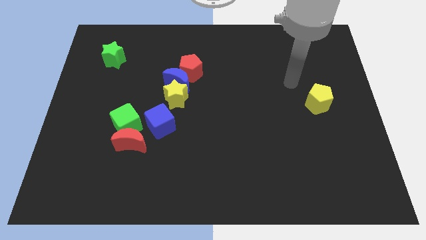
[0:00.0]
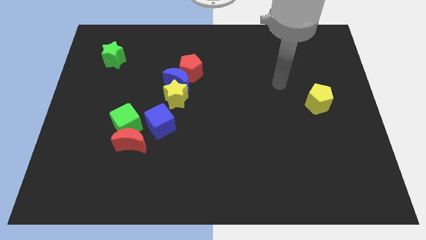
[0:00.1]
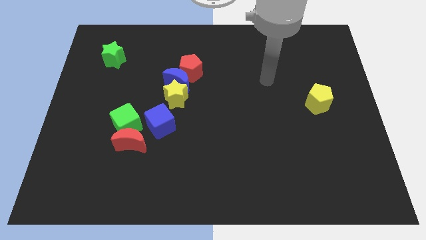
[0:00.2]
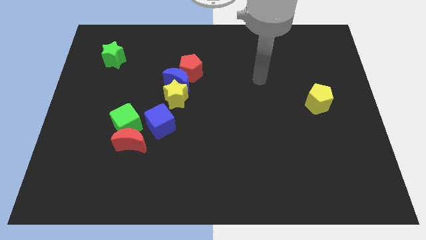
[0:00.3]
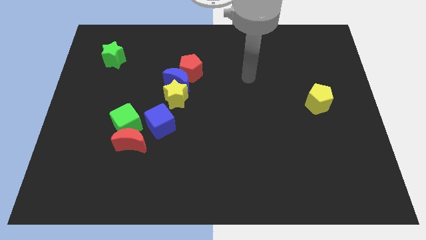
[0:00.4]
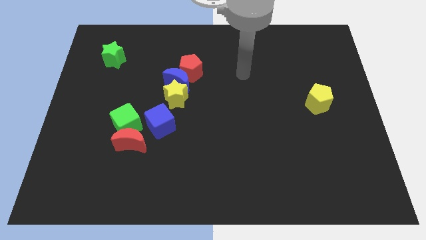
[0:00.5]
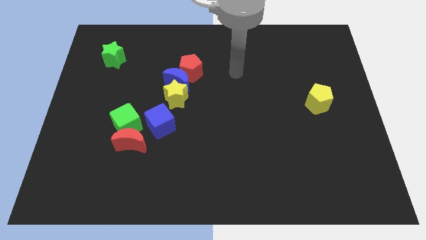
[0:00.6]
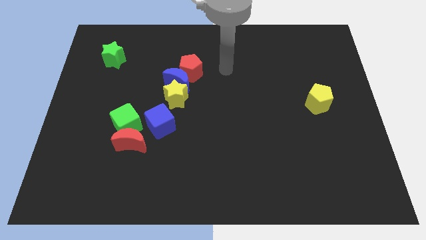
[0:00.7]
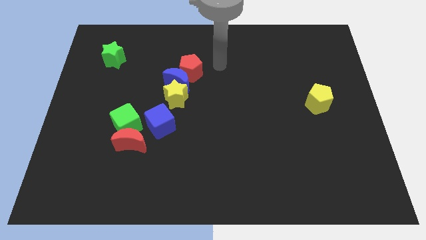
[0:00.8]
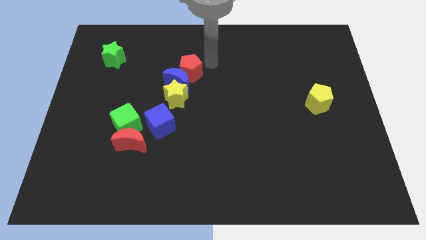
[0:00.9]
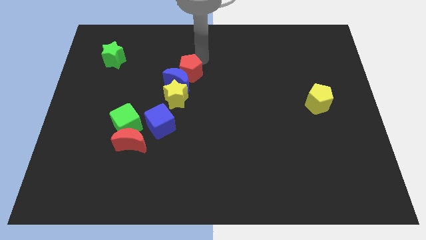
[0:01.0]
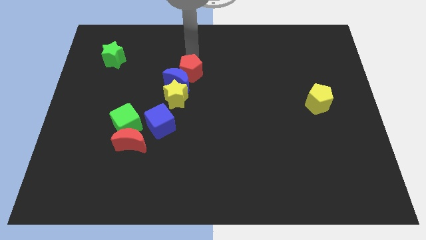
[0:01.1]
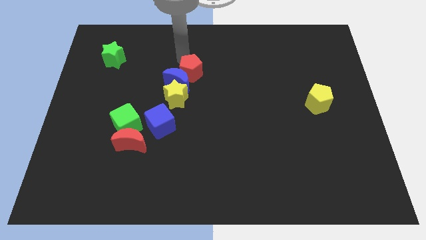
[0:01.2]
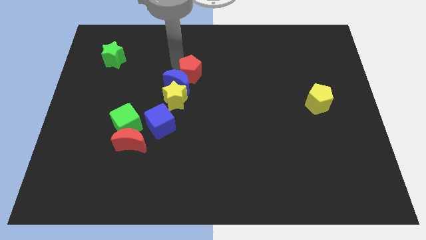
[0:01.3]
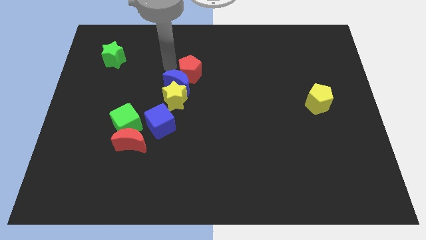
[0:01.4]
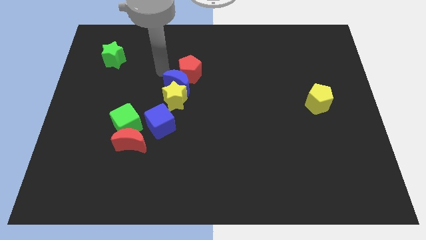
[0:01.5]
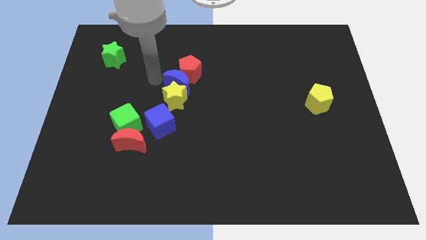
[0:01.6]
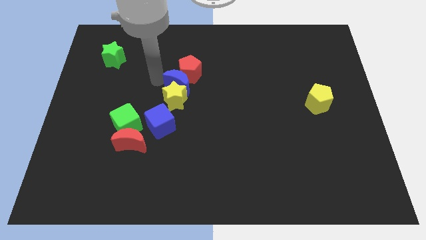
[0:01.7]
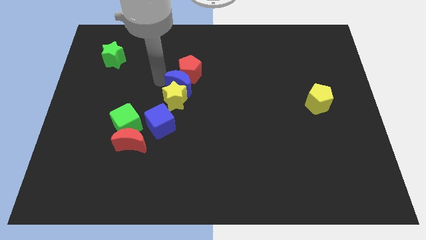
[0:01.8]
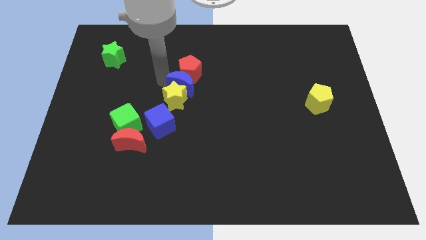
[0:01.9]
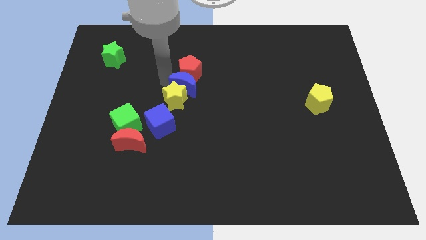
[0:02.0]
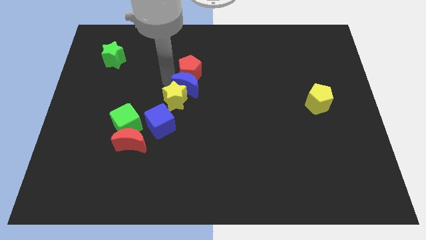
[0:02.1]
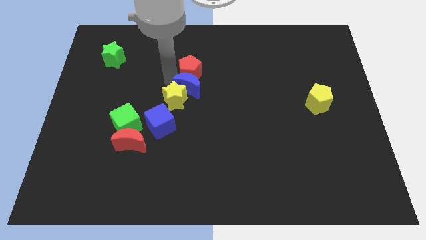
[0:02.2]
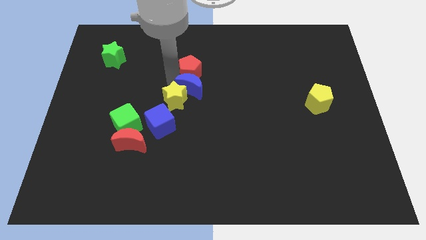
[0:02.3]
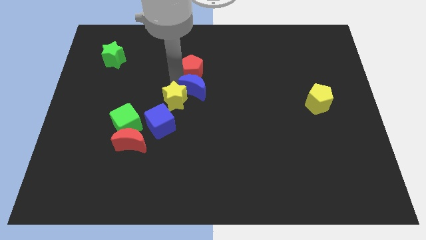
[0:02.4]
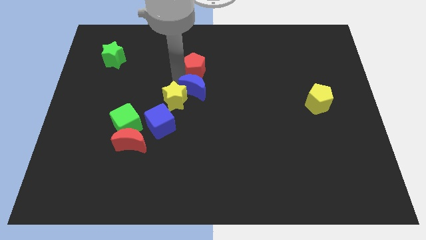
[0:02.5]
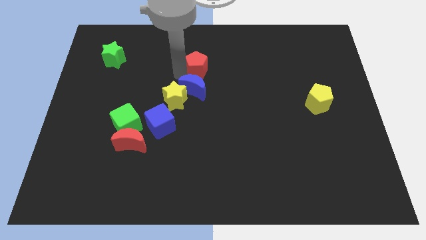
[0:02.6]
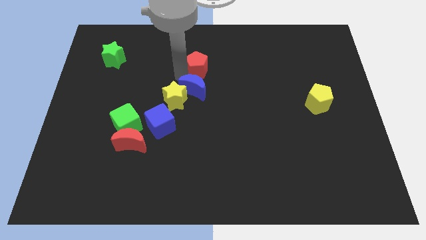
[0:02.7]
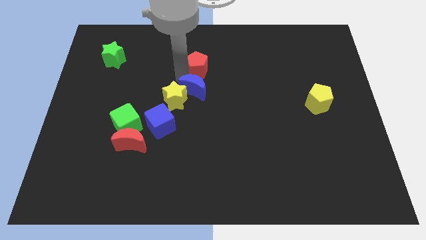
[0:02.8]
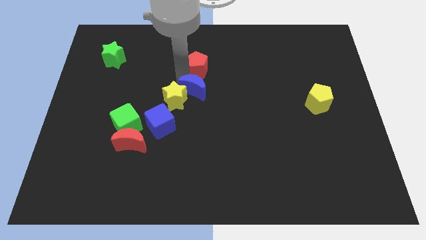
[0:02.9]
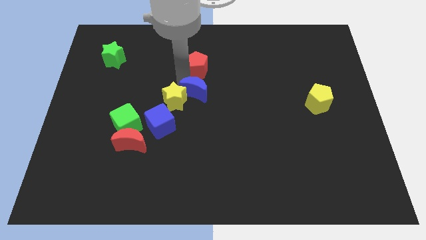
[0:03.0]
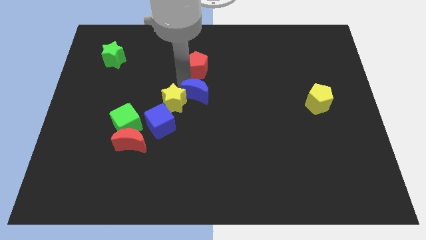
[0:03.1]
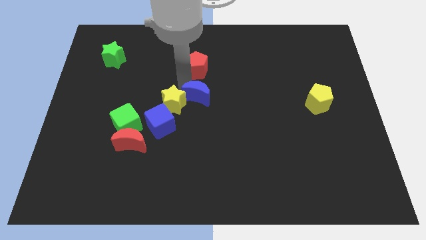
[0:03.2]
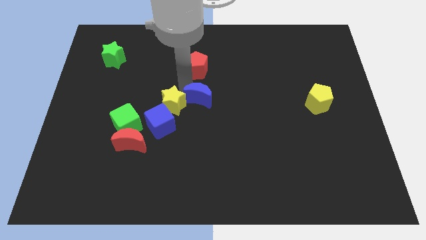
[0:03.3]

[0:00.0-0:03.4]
slightly push the blue moon down and to the right

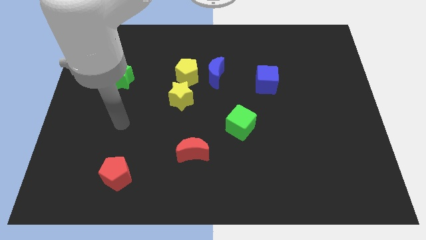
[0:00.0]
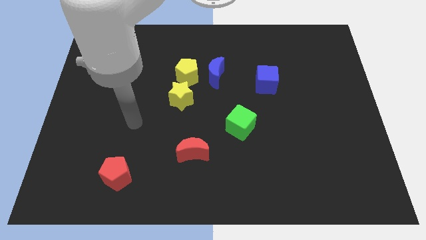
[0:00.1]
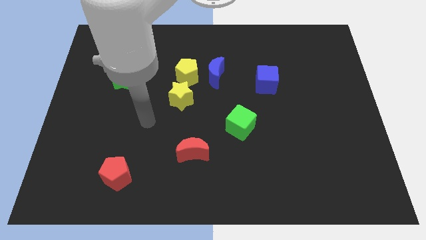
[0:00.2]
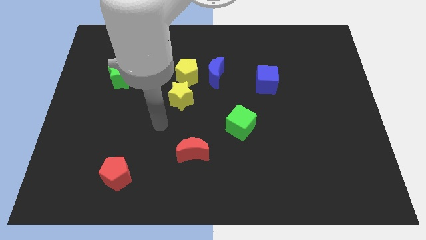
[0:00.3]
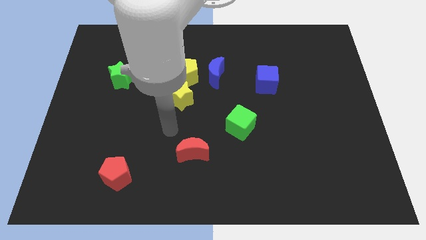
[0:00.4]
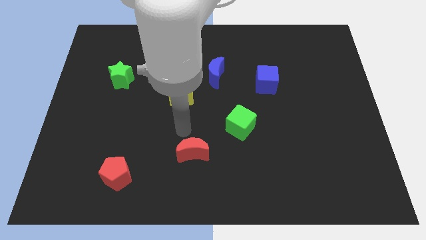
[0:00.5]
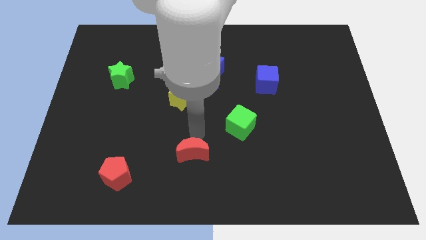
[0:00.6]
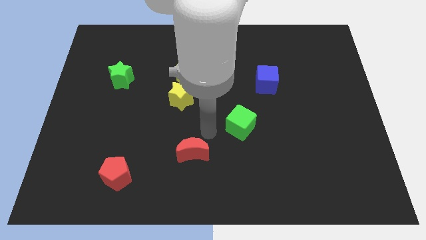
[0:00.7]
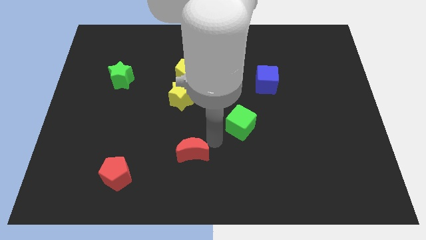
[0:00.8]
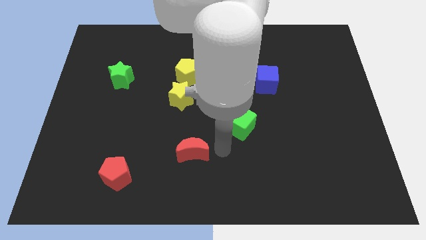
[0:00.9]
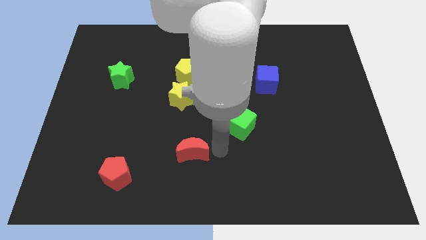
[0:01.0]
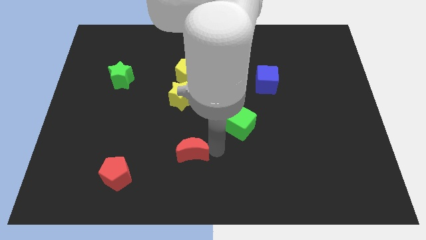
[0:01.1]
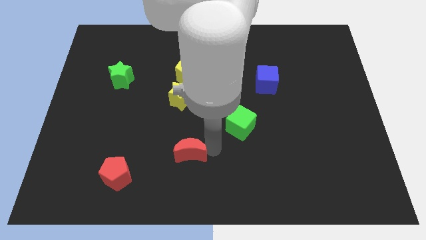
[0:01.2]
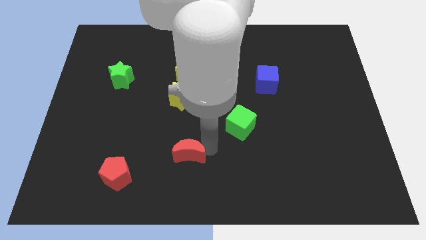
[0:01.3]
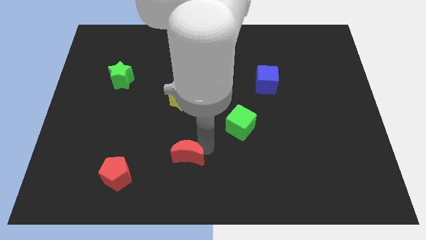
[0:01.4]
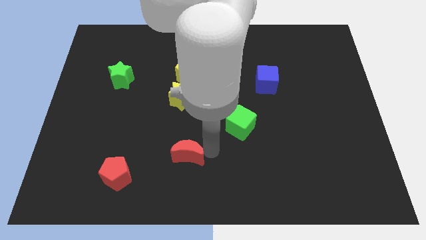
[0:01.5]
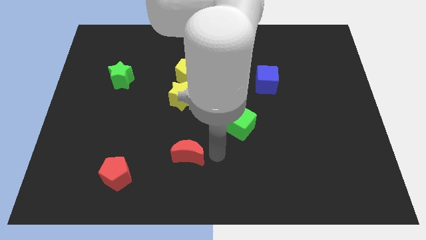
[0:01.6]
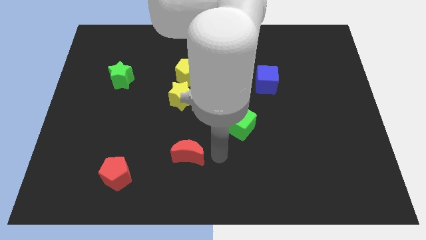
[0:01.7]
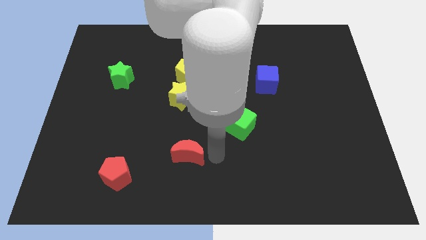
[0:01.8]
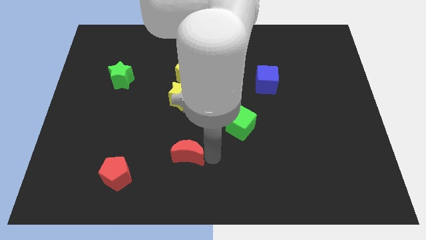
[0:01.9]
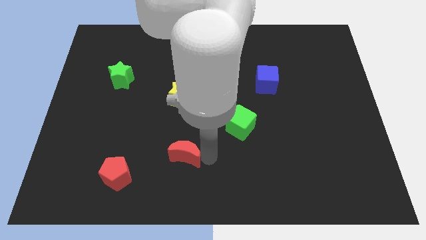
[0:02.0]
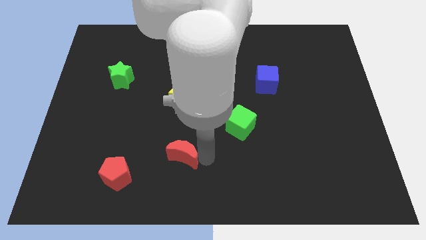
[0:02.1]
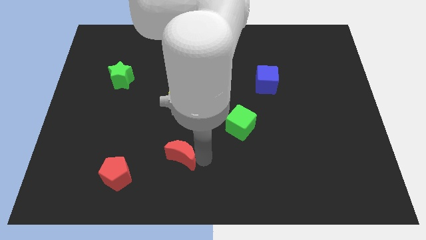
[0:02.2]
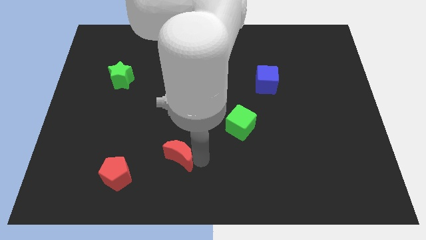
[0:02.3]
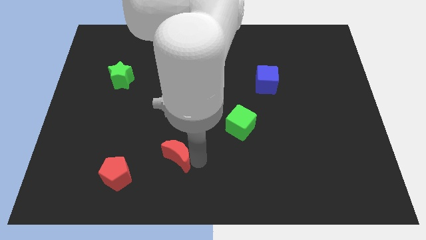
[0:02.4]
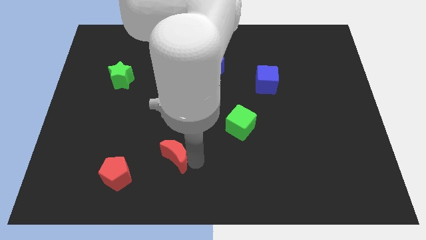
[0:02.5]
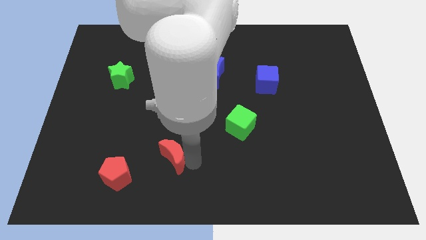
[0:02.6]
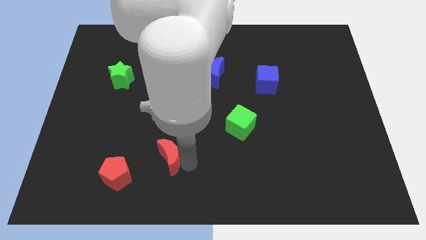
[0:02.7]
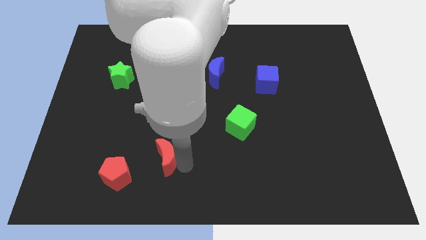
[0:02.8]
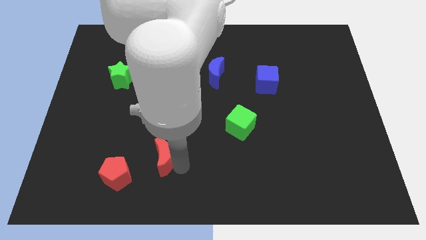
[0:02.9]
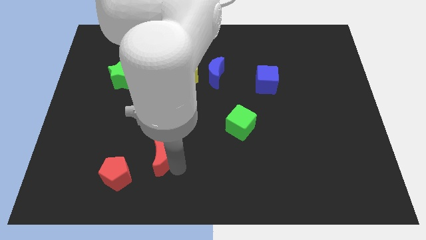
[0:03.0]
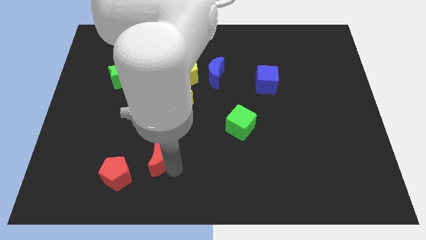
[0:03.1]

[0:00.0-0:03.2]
slightly move the red moon left

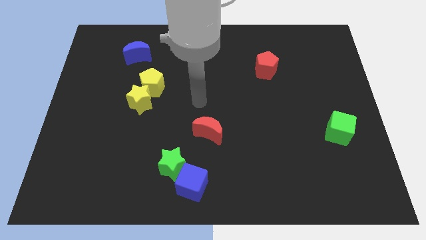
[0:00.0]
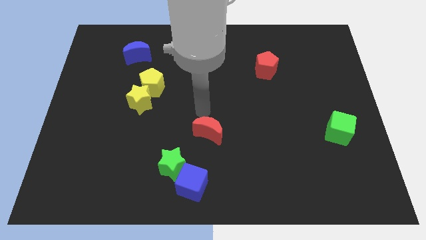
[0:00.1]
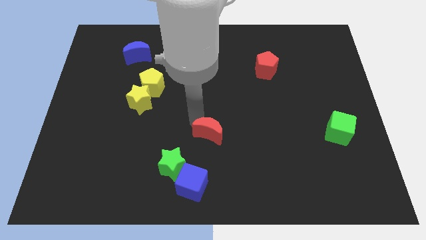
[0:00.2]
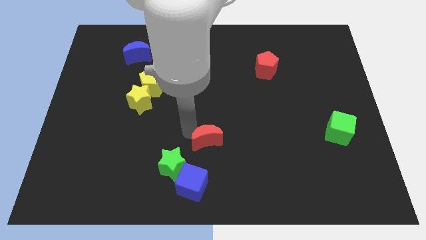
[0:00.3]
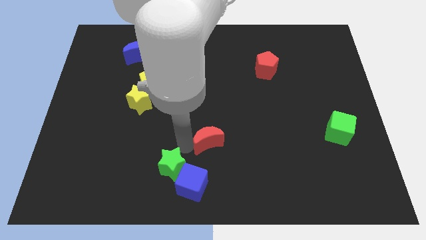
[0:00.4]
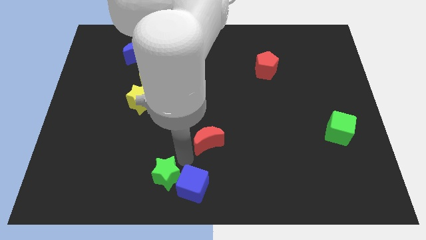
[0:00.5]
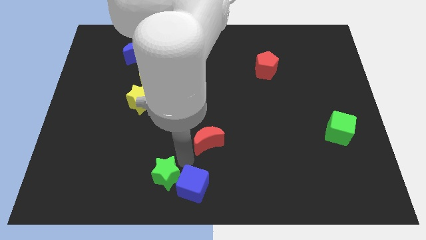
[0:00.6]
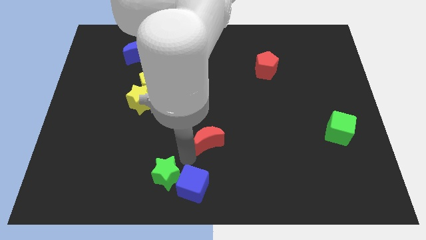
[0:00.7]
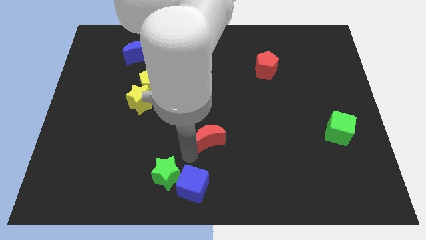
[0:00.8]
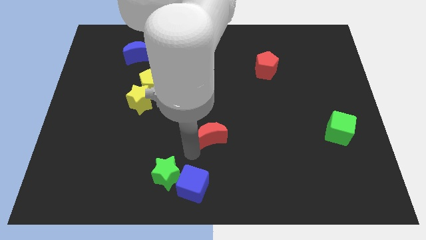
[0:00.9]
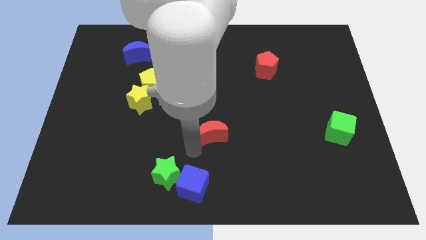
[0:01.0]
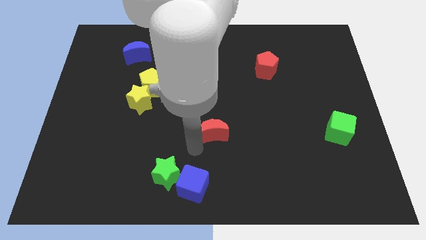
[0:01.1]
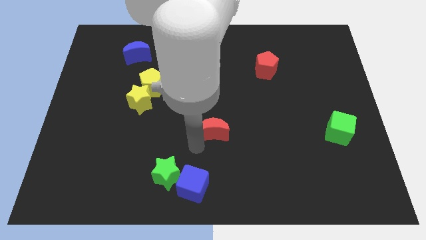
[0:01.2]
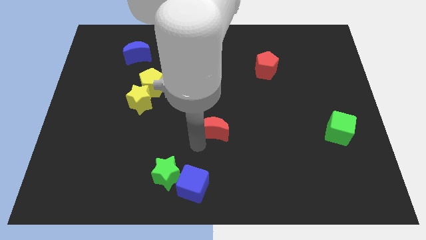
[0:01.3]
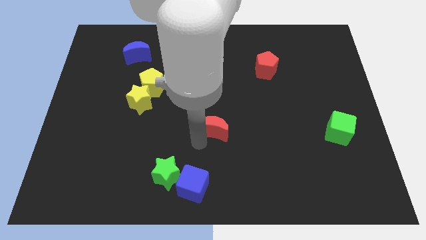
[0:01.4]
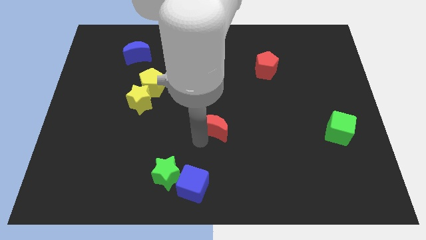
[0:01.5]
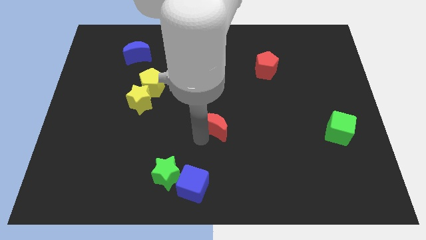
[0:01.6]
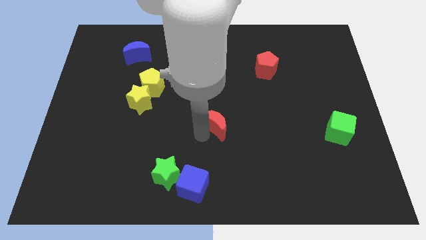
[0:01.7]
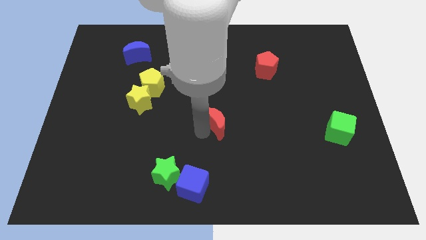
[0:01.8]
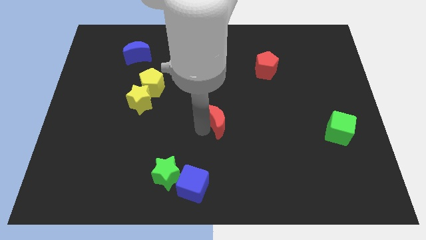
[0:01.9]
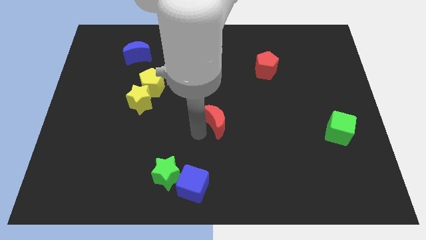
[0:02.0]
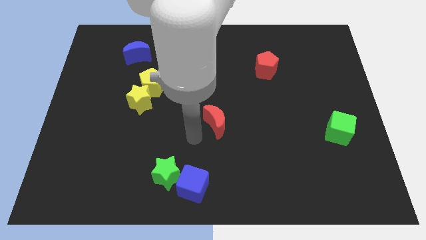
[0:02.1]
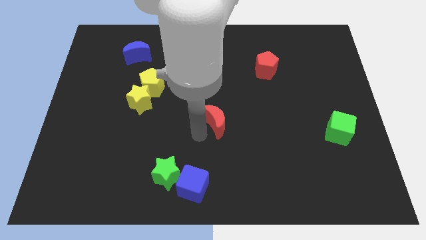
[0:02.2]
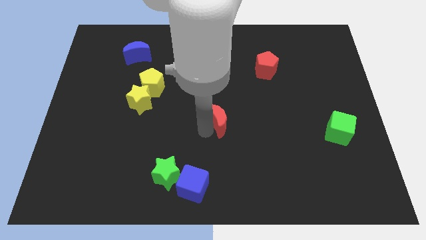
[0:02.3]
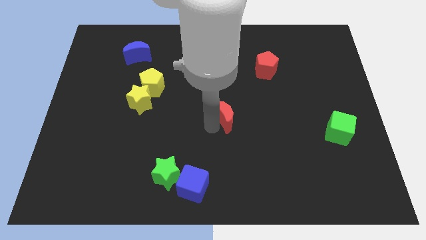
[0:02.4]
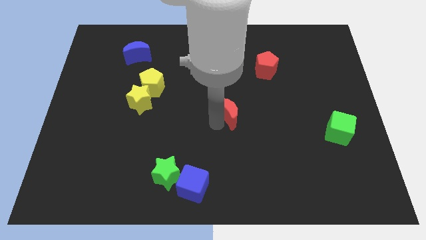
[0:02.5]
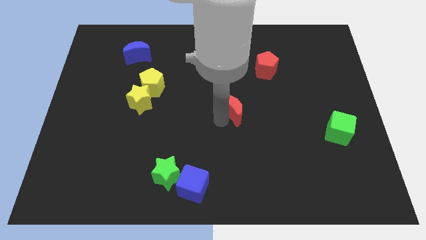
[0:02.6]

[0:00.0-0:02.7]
slide the red moon upwards and right a little bit
